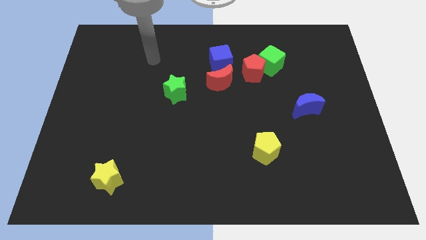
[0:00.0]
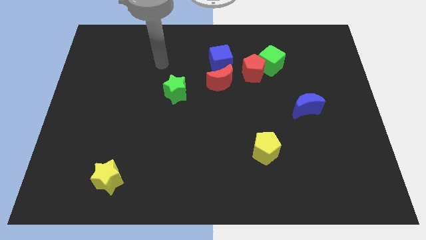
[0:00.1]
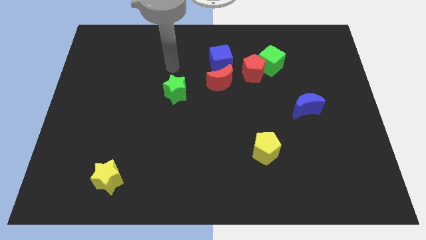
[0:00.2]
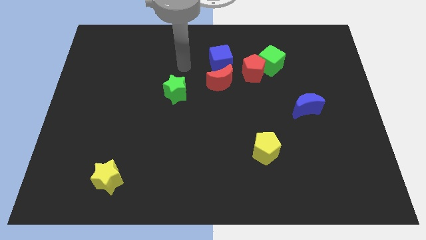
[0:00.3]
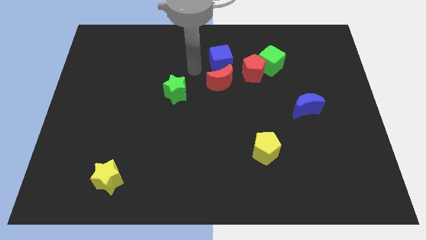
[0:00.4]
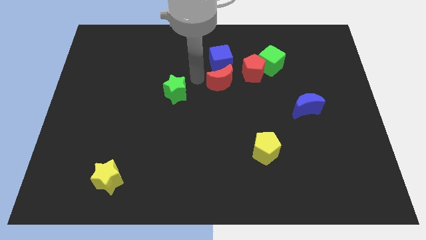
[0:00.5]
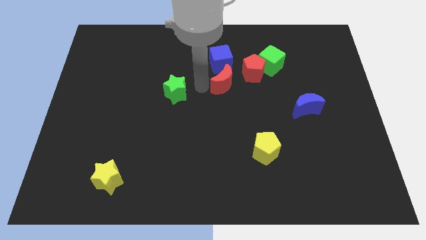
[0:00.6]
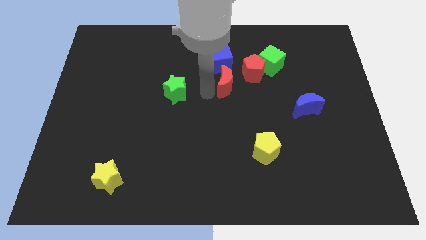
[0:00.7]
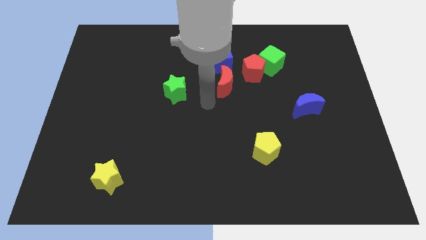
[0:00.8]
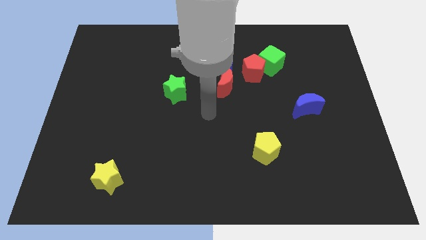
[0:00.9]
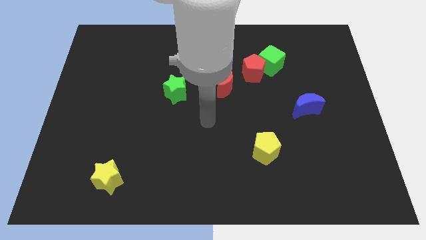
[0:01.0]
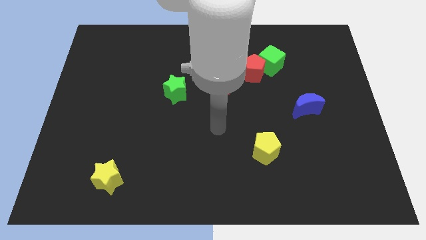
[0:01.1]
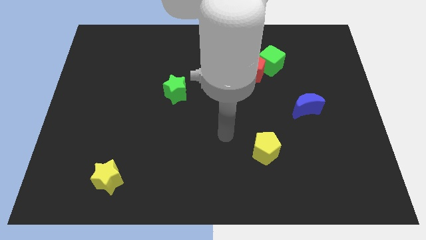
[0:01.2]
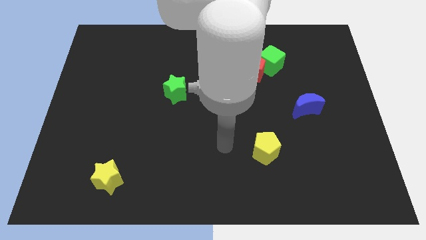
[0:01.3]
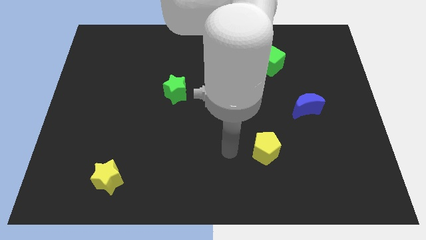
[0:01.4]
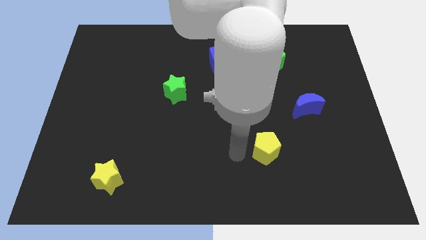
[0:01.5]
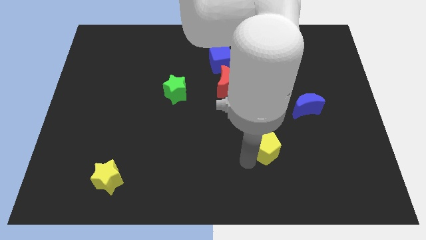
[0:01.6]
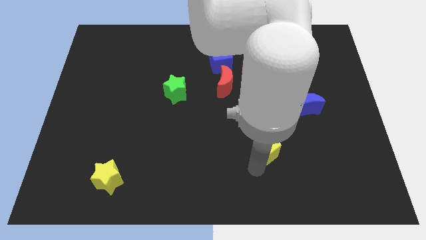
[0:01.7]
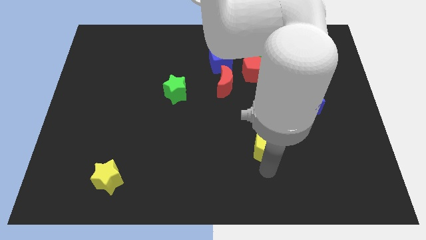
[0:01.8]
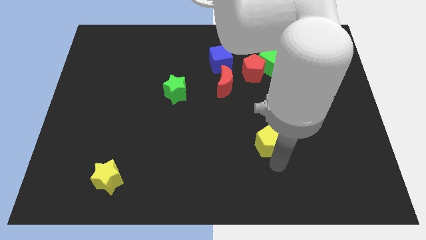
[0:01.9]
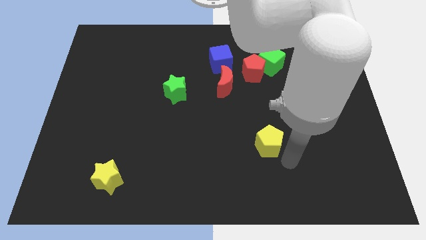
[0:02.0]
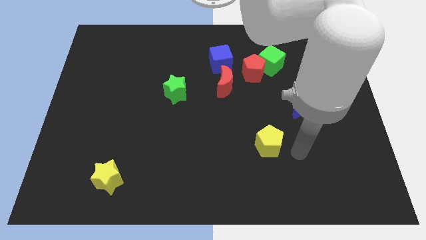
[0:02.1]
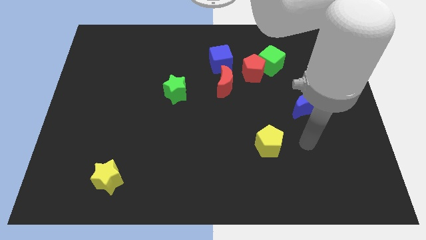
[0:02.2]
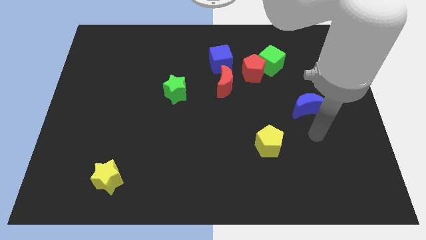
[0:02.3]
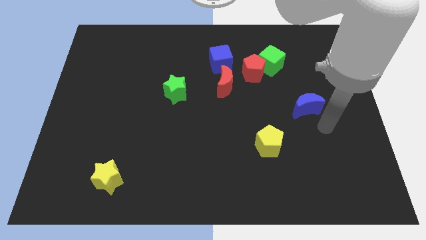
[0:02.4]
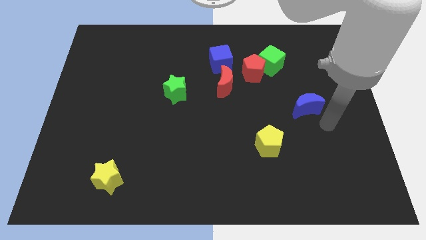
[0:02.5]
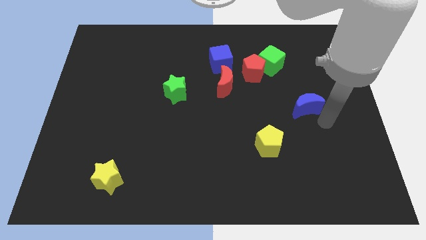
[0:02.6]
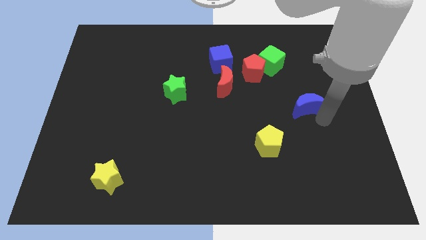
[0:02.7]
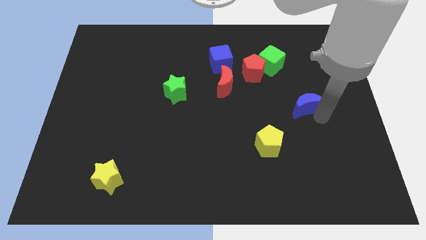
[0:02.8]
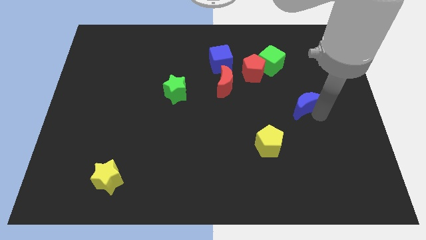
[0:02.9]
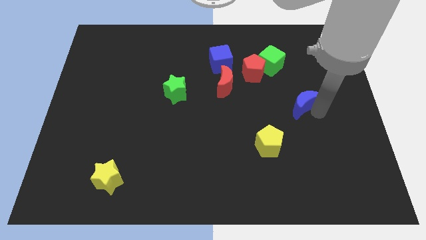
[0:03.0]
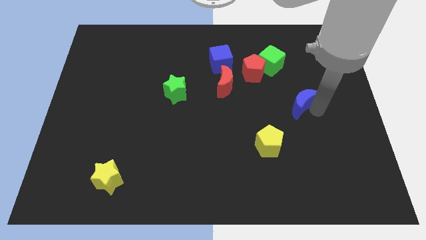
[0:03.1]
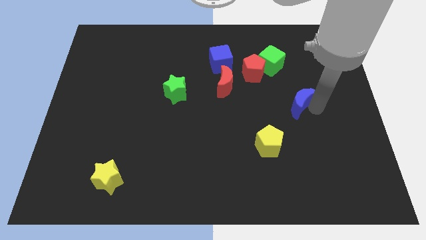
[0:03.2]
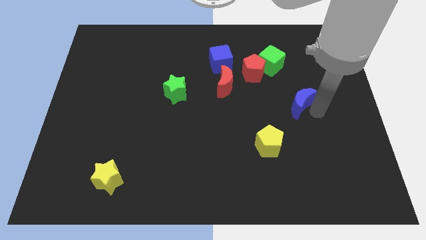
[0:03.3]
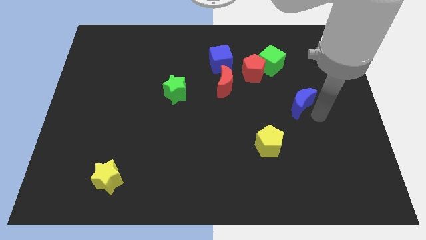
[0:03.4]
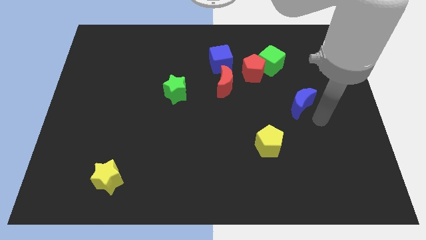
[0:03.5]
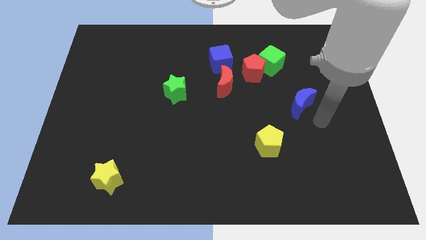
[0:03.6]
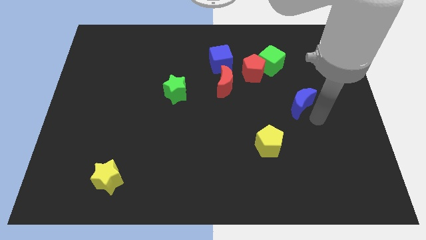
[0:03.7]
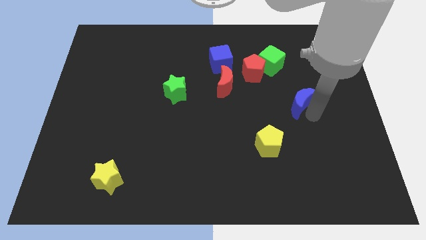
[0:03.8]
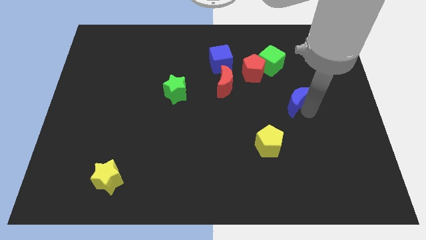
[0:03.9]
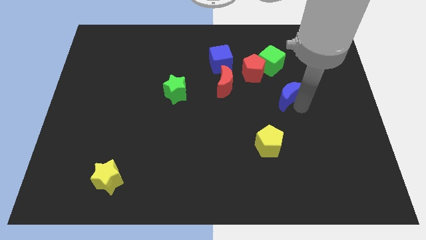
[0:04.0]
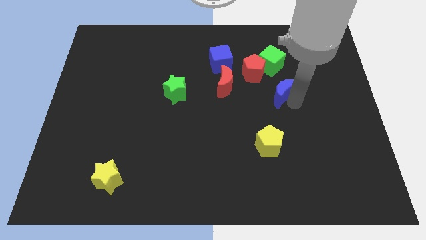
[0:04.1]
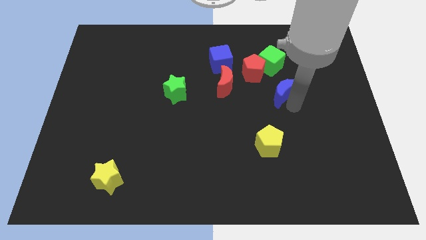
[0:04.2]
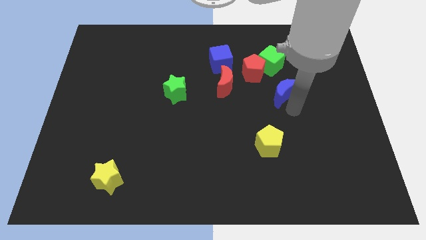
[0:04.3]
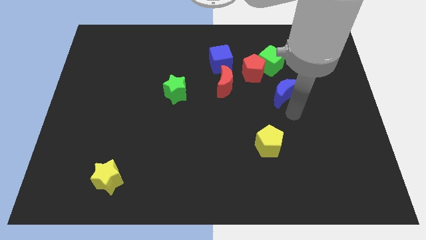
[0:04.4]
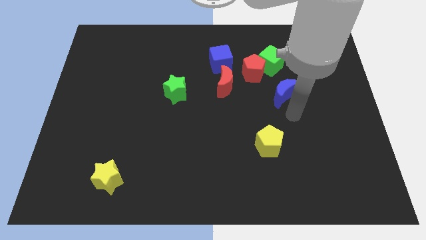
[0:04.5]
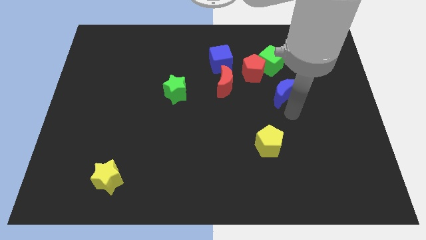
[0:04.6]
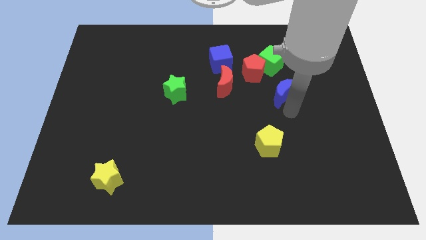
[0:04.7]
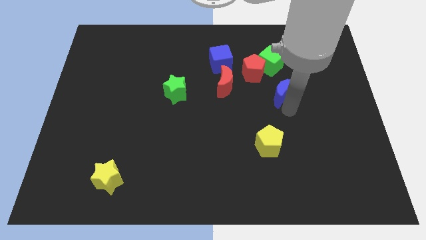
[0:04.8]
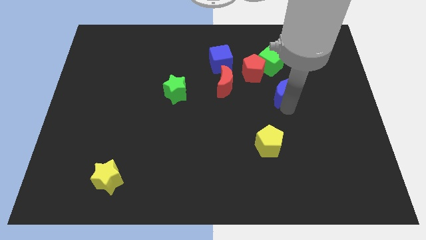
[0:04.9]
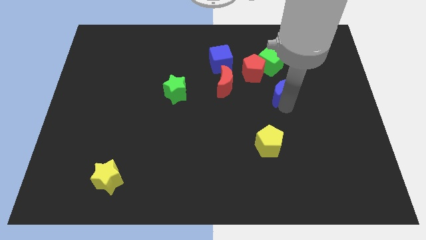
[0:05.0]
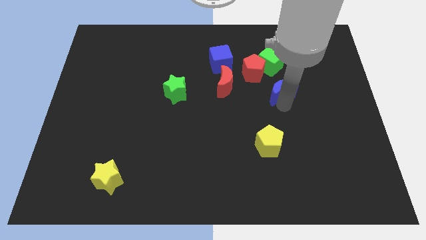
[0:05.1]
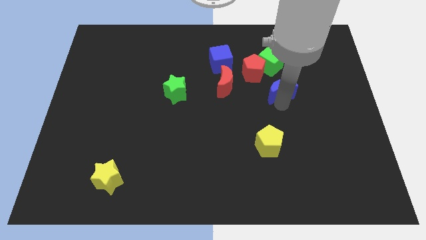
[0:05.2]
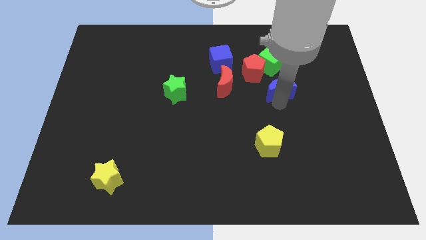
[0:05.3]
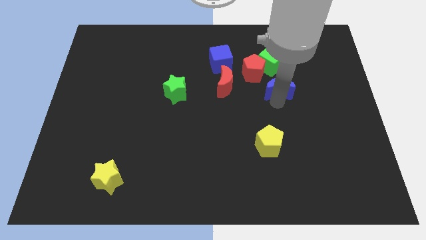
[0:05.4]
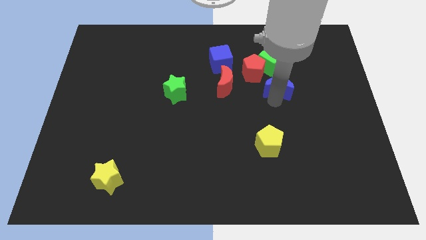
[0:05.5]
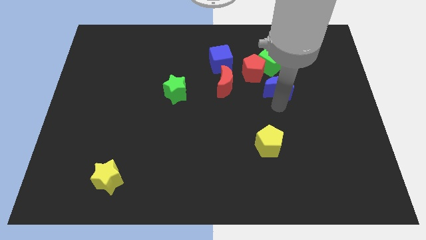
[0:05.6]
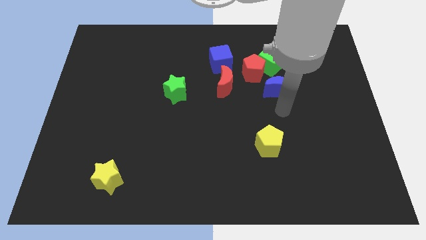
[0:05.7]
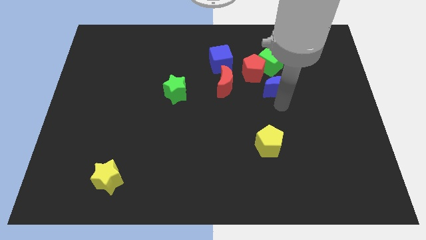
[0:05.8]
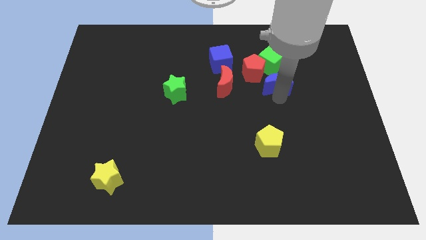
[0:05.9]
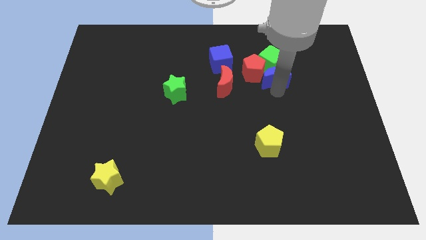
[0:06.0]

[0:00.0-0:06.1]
move the blue moon to the green cube
